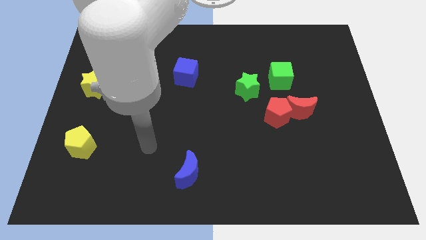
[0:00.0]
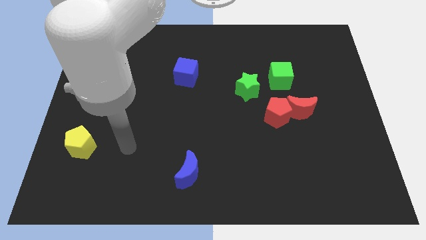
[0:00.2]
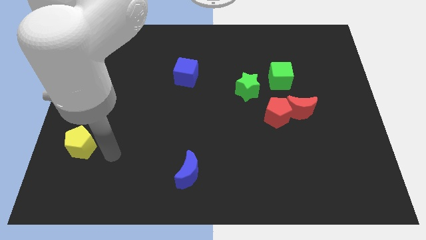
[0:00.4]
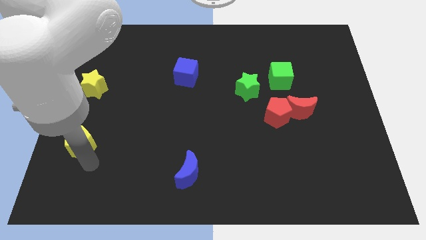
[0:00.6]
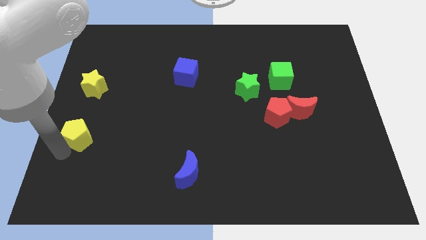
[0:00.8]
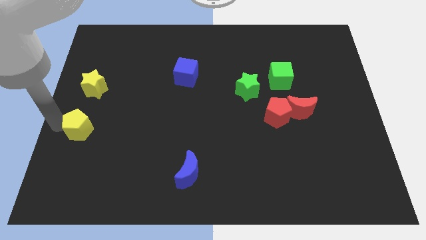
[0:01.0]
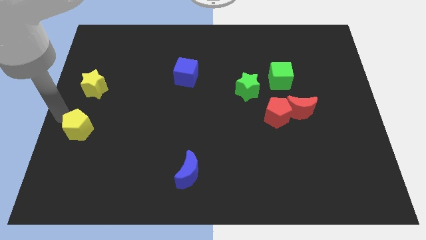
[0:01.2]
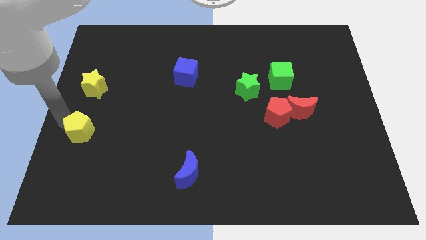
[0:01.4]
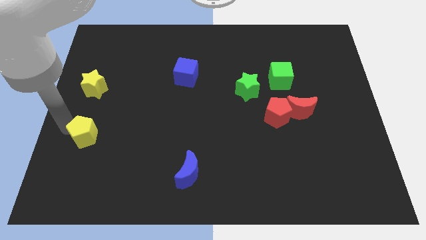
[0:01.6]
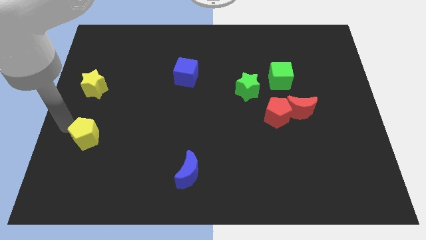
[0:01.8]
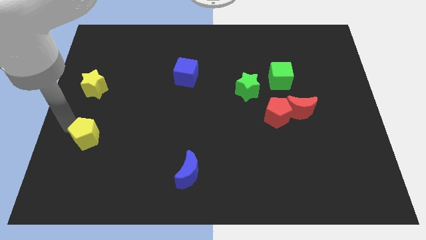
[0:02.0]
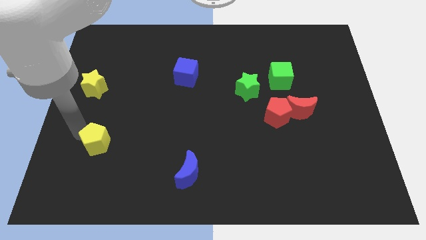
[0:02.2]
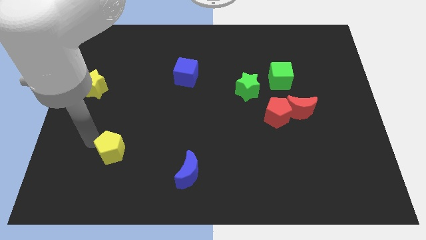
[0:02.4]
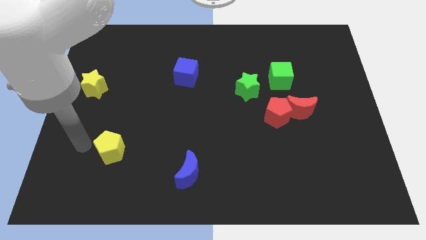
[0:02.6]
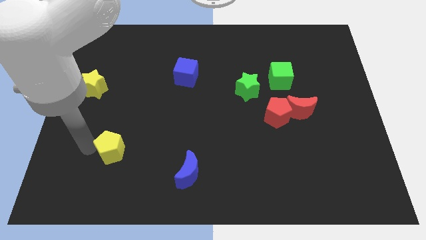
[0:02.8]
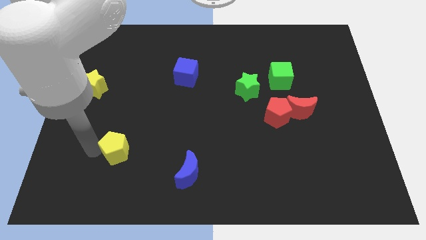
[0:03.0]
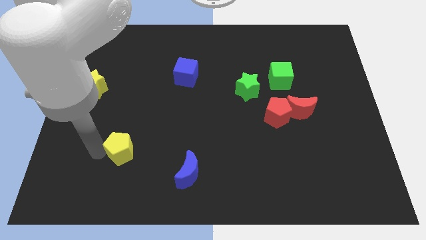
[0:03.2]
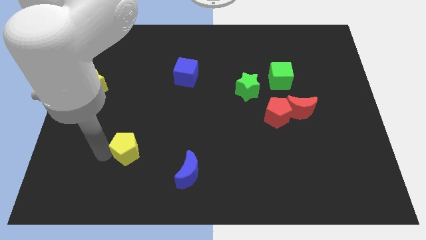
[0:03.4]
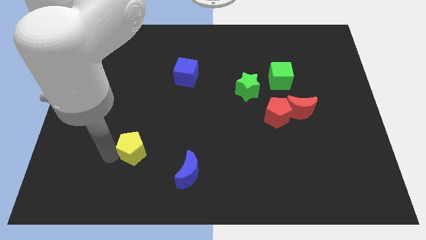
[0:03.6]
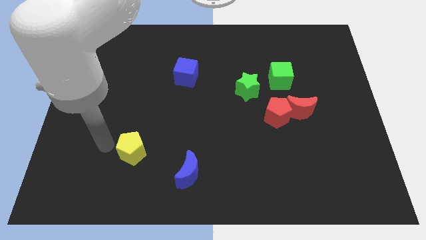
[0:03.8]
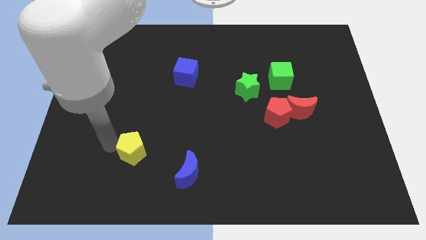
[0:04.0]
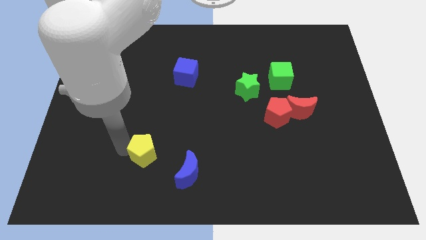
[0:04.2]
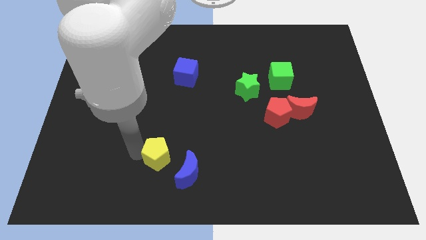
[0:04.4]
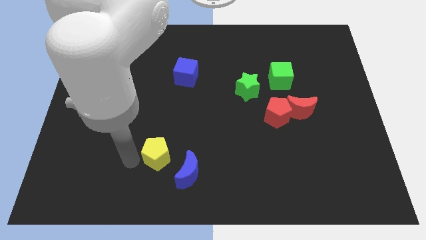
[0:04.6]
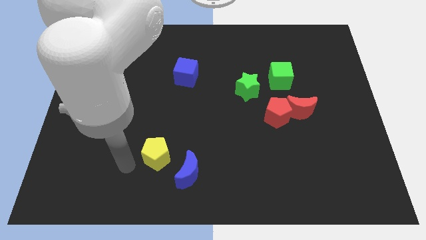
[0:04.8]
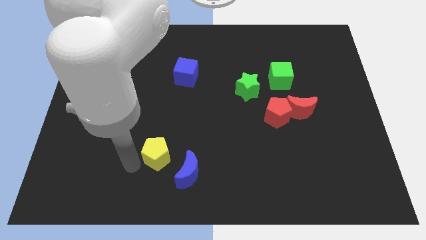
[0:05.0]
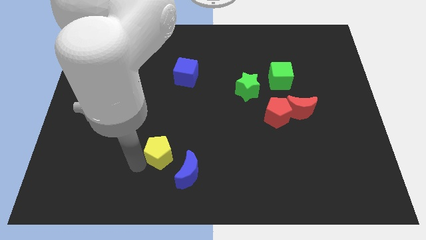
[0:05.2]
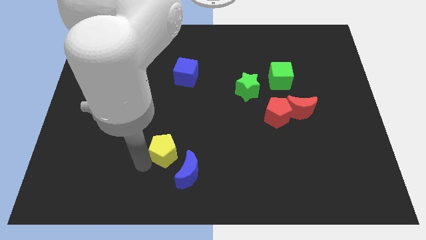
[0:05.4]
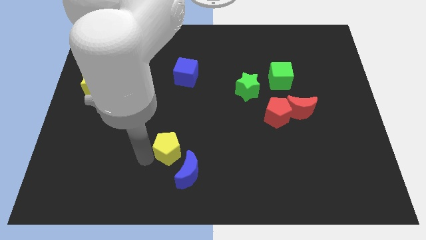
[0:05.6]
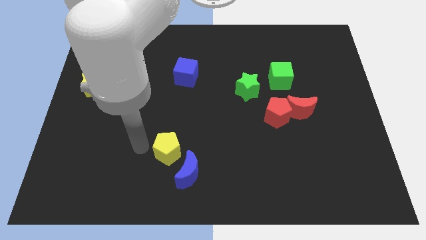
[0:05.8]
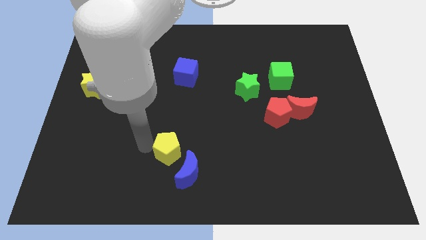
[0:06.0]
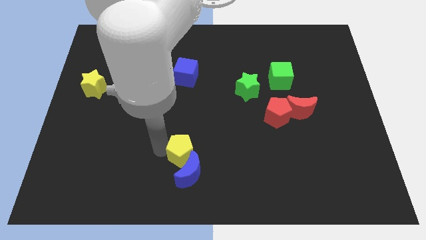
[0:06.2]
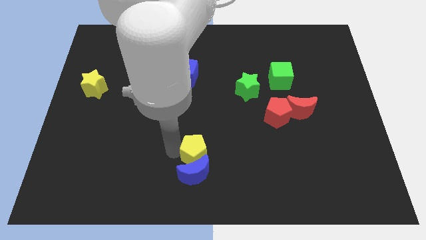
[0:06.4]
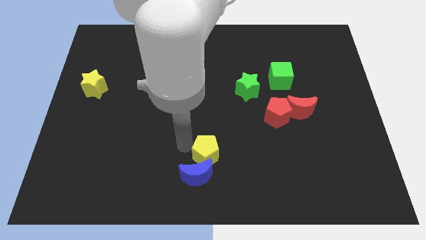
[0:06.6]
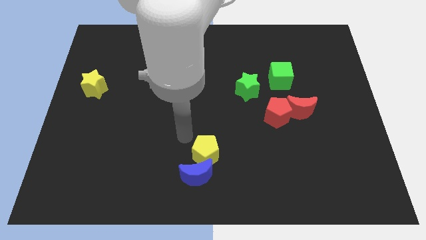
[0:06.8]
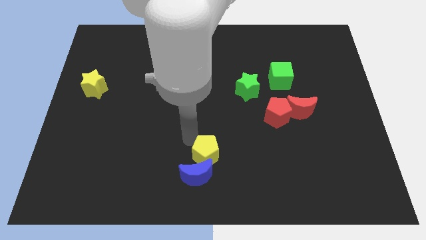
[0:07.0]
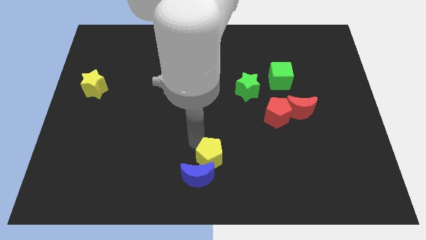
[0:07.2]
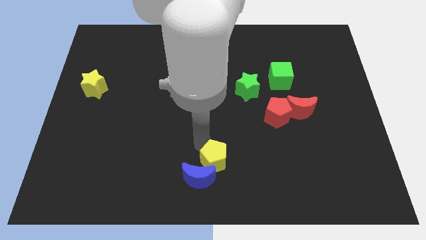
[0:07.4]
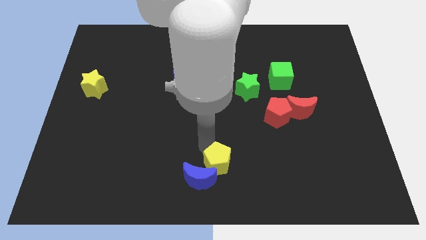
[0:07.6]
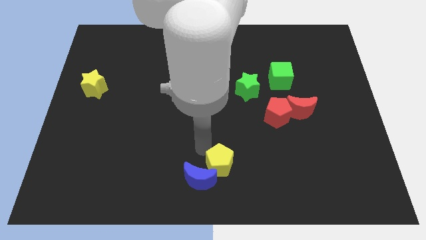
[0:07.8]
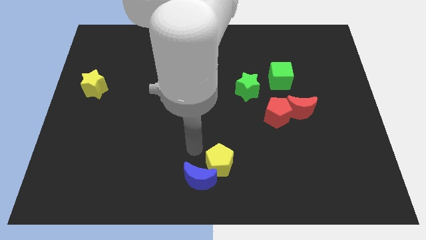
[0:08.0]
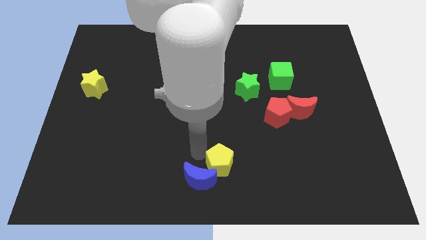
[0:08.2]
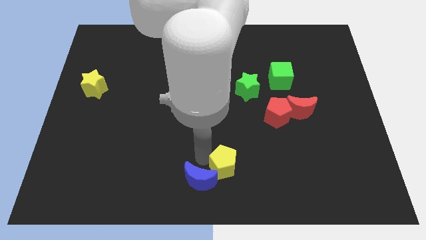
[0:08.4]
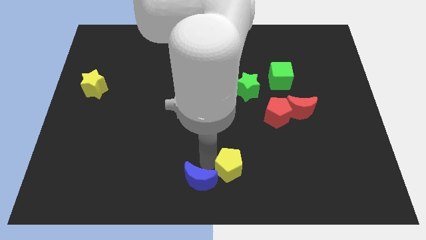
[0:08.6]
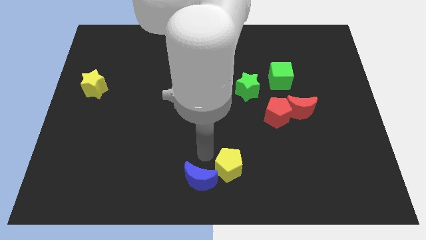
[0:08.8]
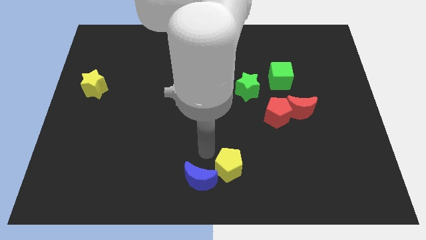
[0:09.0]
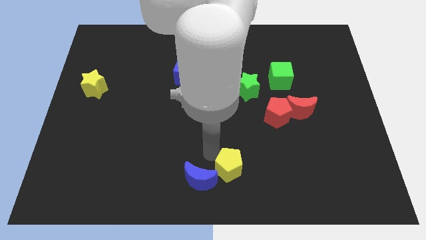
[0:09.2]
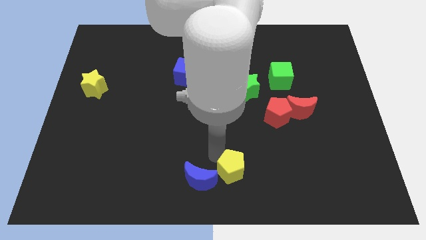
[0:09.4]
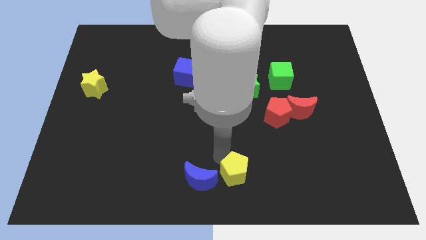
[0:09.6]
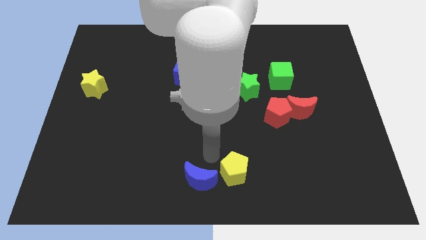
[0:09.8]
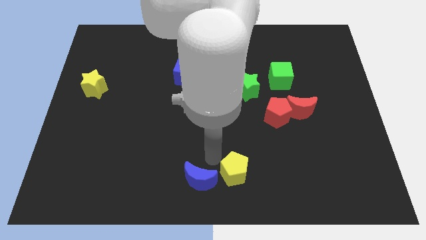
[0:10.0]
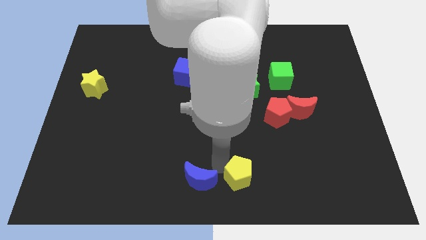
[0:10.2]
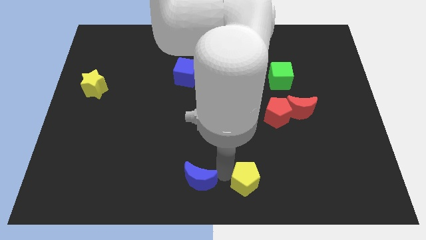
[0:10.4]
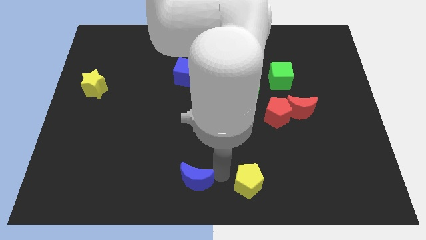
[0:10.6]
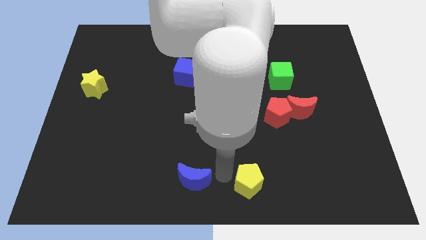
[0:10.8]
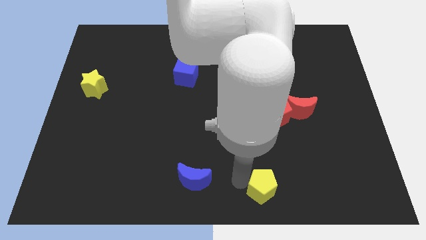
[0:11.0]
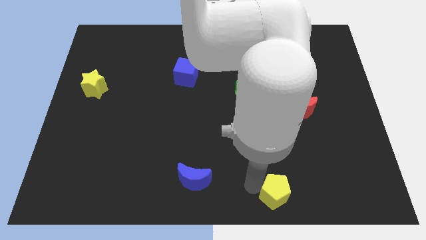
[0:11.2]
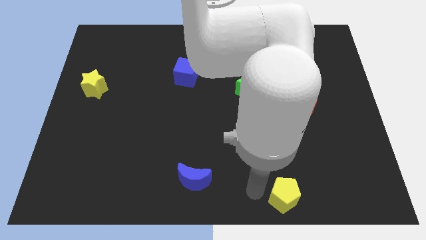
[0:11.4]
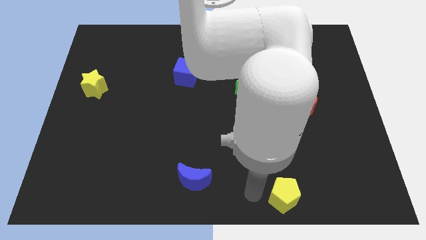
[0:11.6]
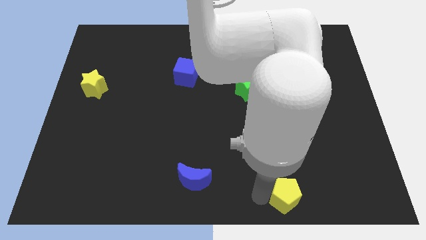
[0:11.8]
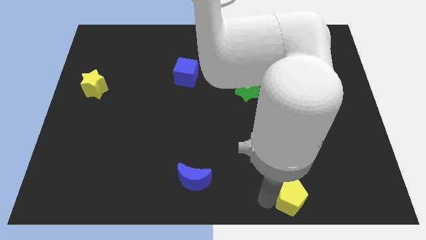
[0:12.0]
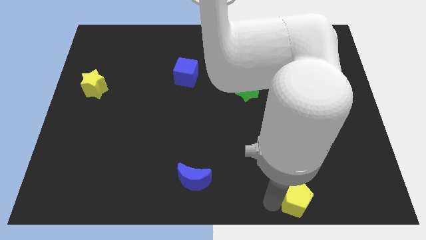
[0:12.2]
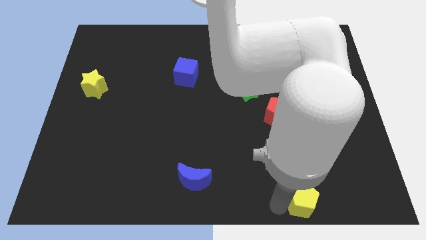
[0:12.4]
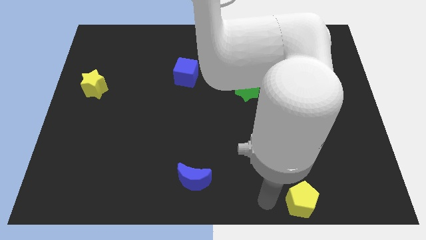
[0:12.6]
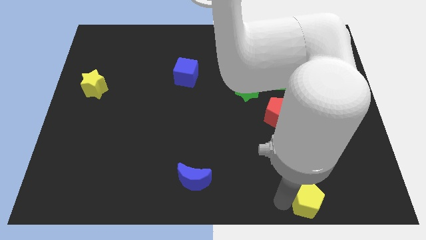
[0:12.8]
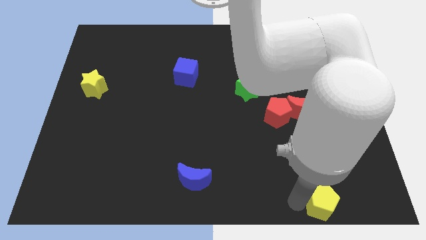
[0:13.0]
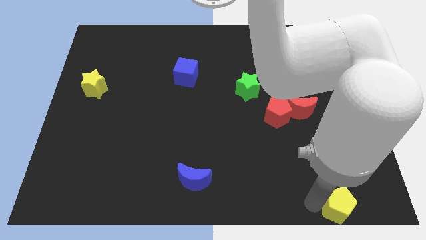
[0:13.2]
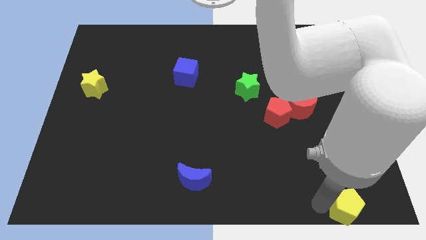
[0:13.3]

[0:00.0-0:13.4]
move the yellow pentagon to the bottom right of the board

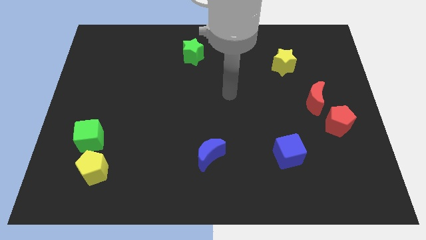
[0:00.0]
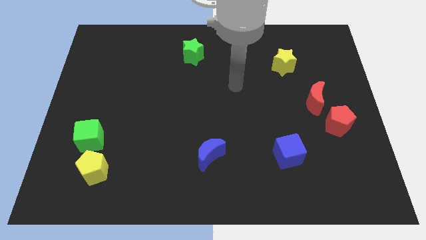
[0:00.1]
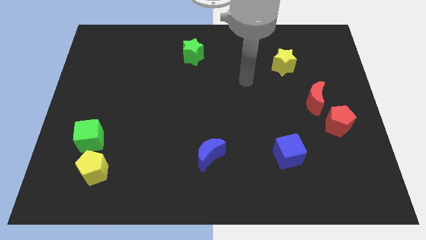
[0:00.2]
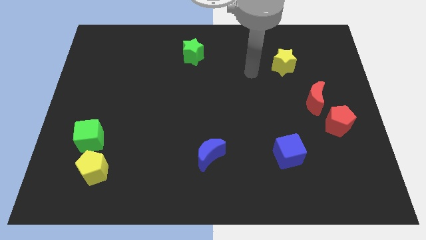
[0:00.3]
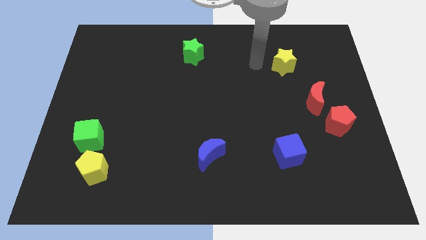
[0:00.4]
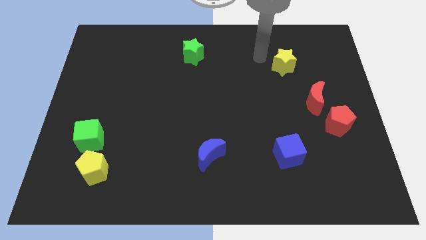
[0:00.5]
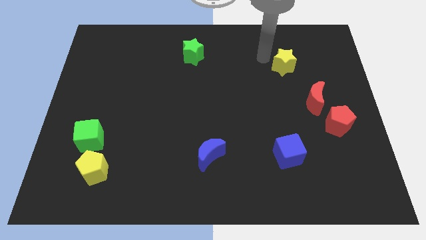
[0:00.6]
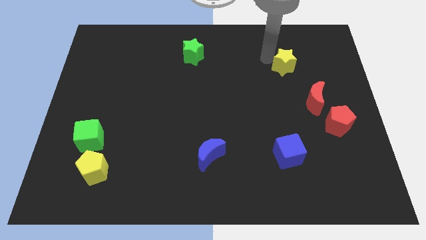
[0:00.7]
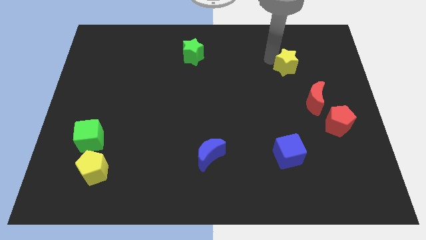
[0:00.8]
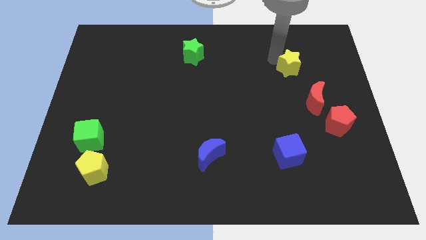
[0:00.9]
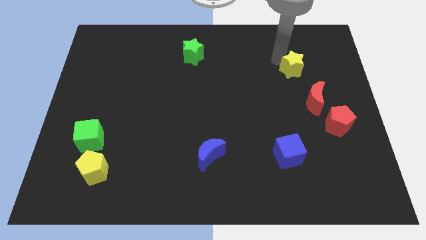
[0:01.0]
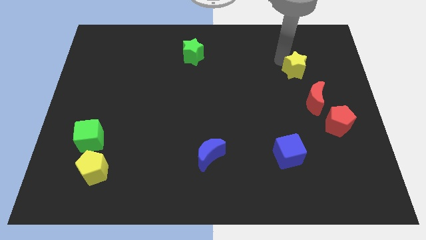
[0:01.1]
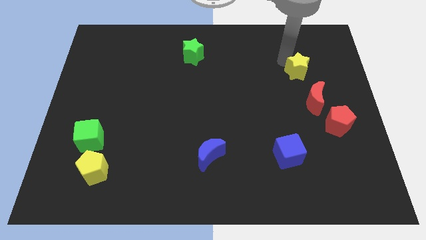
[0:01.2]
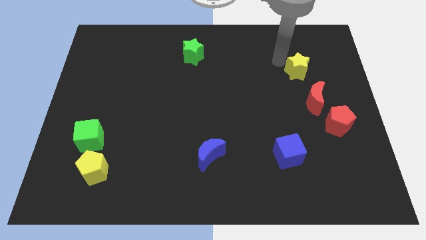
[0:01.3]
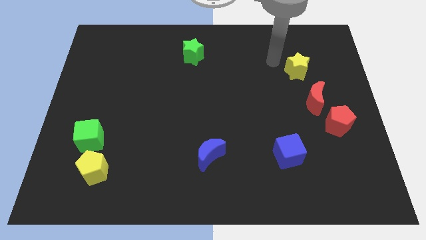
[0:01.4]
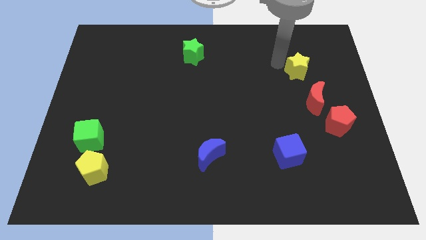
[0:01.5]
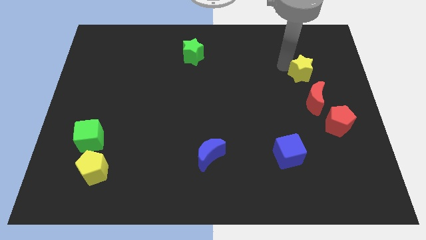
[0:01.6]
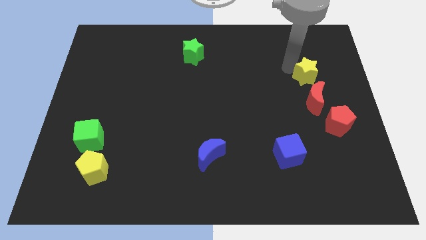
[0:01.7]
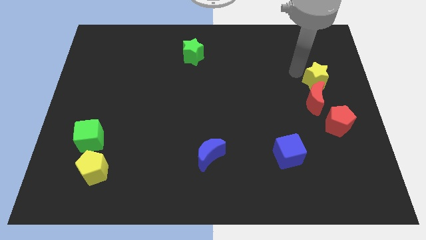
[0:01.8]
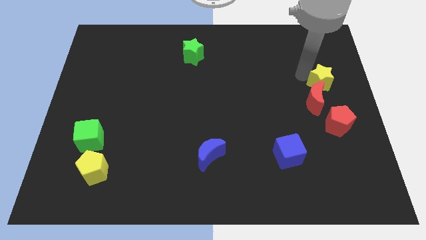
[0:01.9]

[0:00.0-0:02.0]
move the yellow star to the center right
